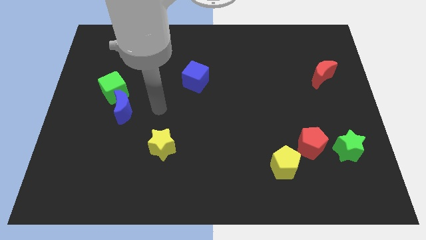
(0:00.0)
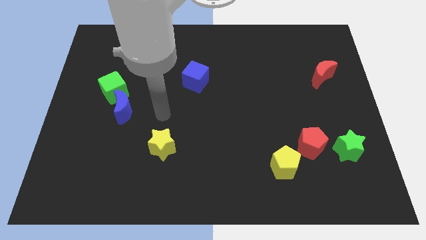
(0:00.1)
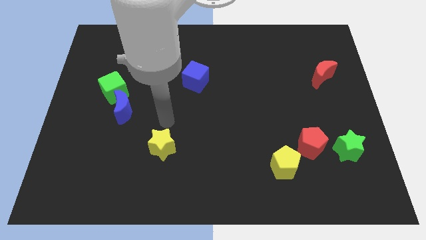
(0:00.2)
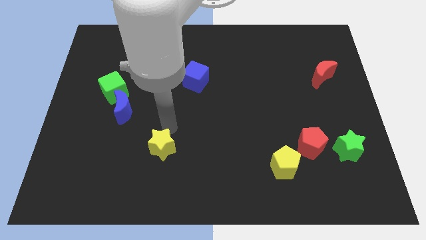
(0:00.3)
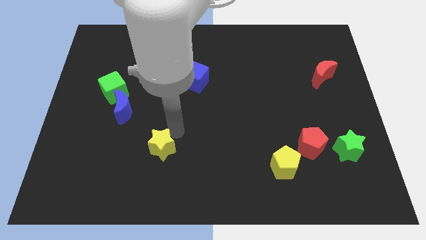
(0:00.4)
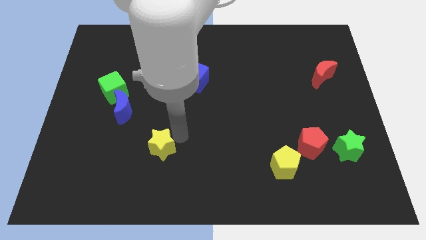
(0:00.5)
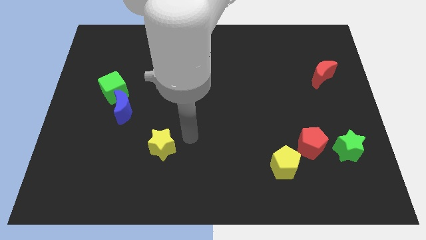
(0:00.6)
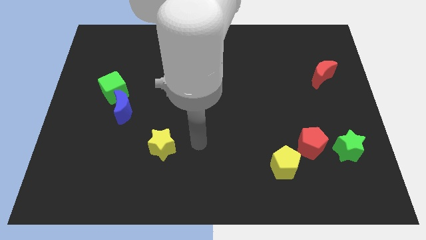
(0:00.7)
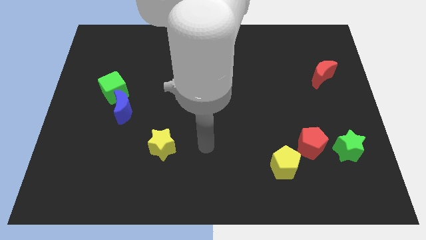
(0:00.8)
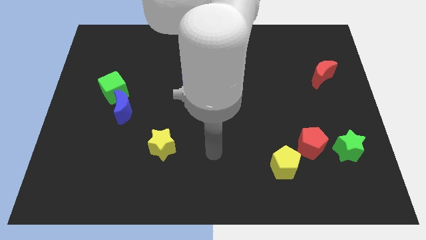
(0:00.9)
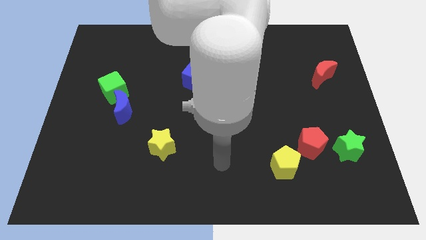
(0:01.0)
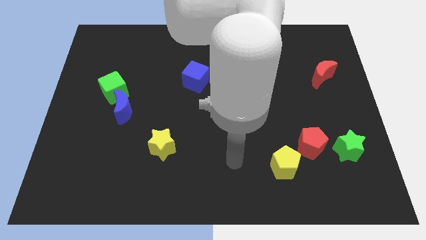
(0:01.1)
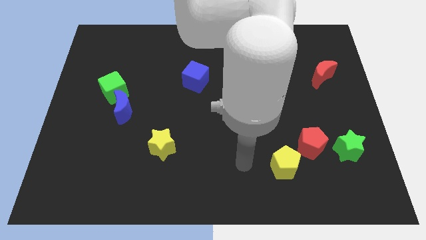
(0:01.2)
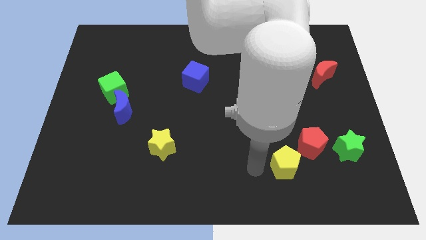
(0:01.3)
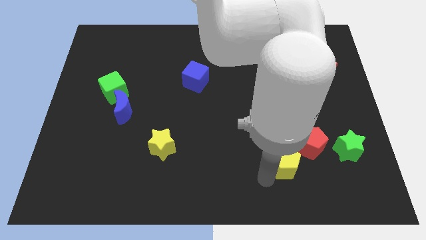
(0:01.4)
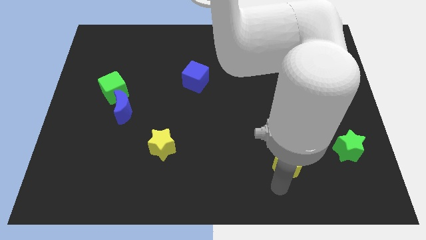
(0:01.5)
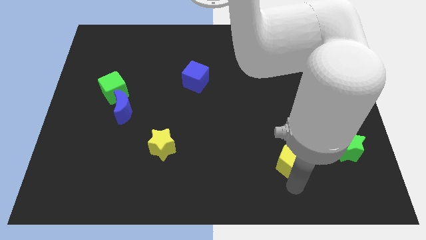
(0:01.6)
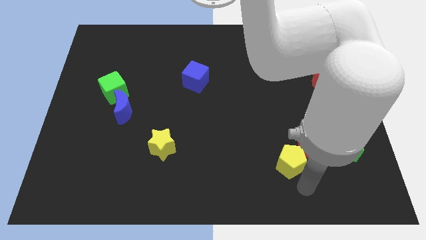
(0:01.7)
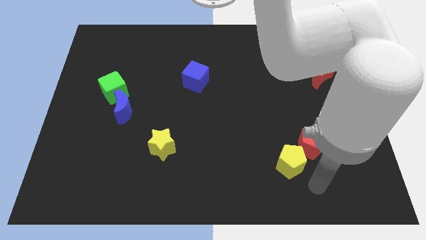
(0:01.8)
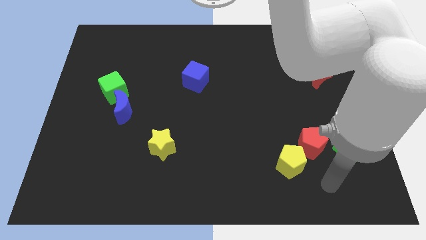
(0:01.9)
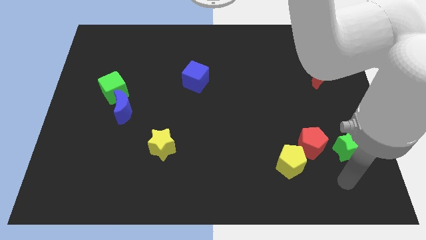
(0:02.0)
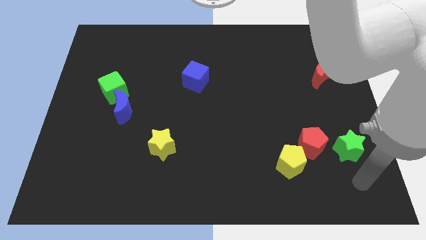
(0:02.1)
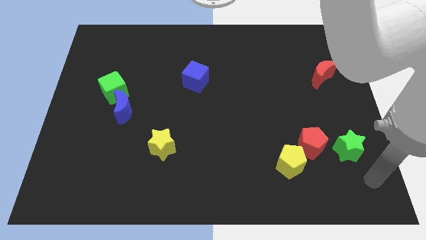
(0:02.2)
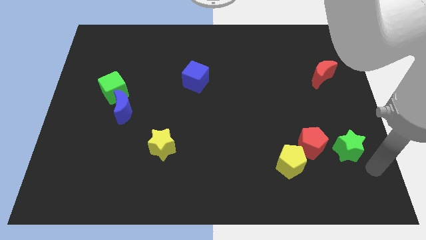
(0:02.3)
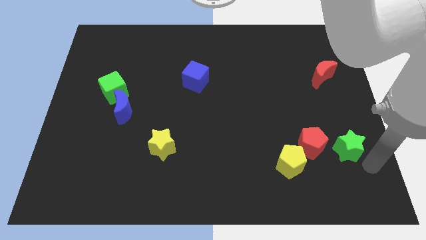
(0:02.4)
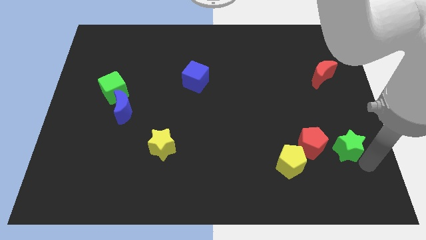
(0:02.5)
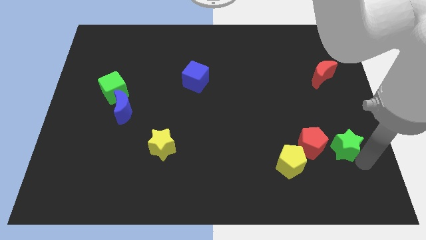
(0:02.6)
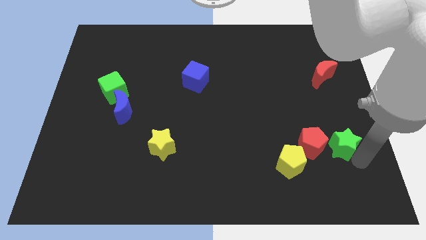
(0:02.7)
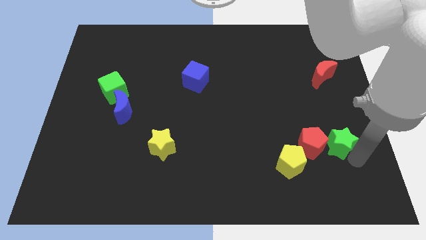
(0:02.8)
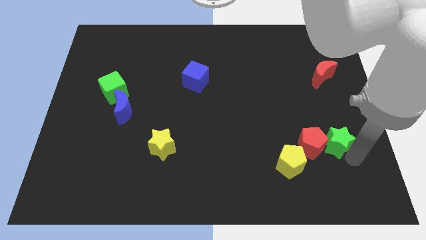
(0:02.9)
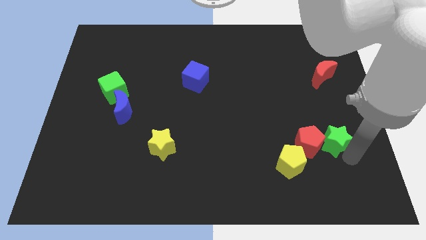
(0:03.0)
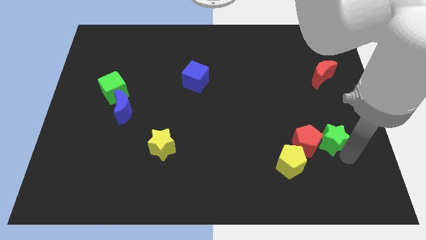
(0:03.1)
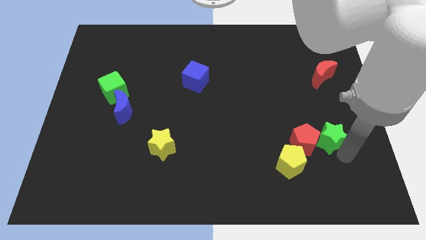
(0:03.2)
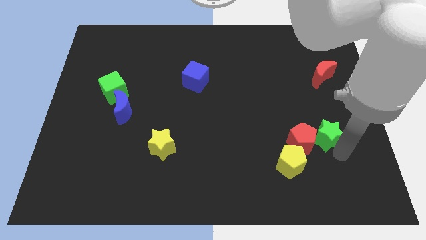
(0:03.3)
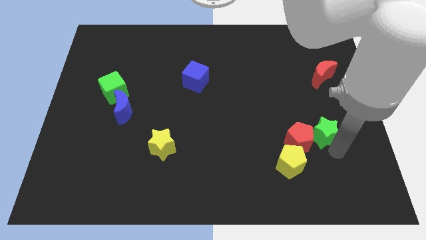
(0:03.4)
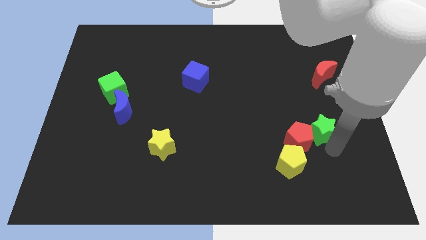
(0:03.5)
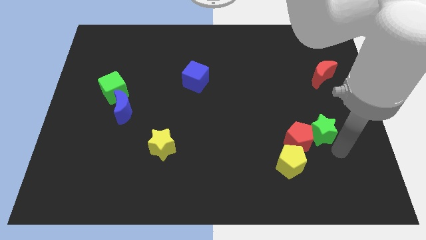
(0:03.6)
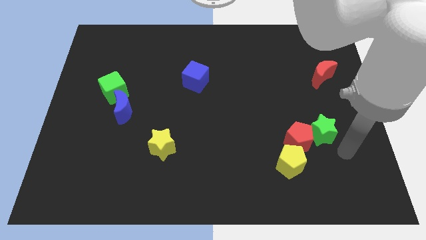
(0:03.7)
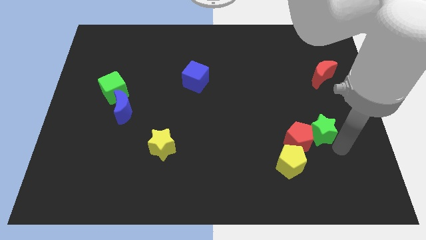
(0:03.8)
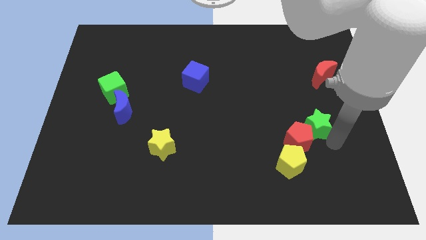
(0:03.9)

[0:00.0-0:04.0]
slightly push the green star up and then left

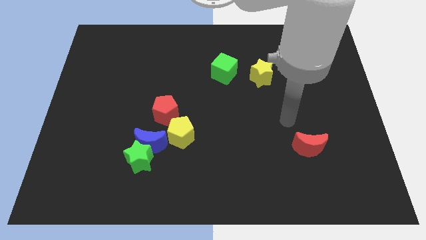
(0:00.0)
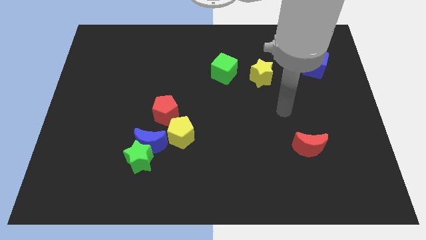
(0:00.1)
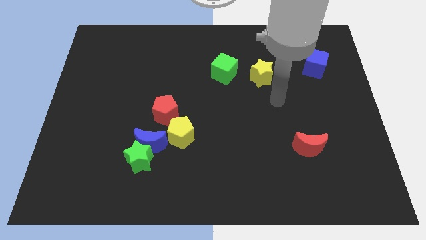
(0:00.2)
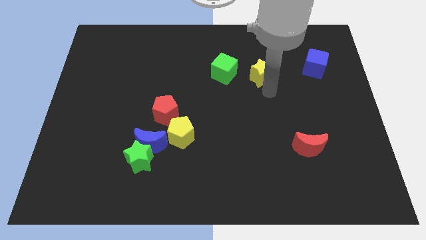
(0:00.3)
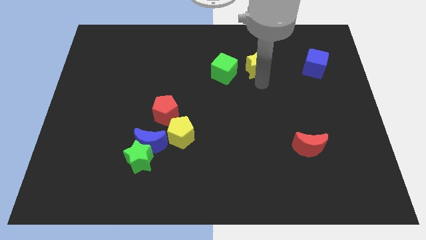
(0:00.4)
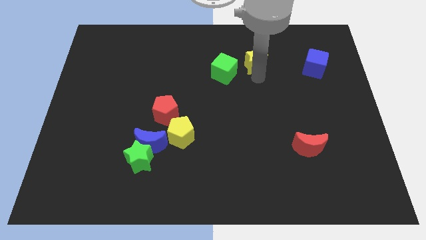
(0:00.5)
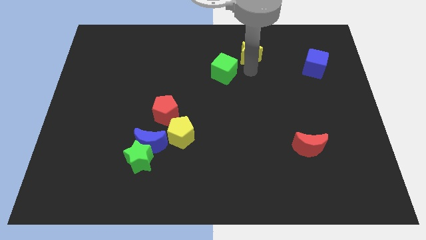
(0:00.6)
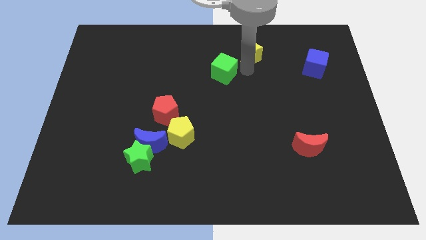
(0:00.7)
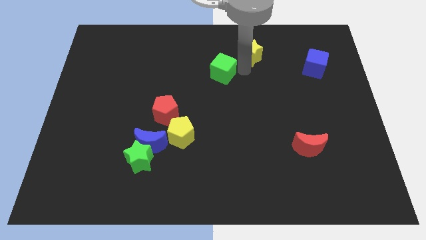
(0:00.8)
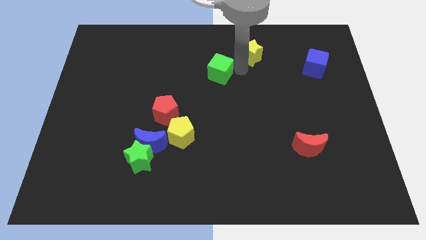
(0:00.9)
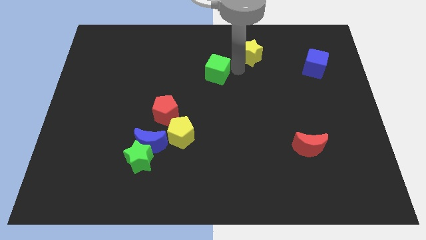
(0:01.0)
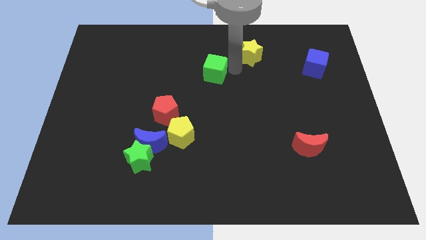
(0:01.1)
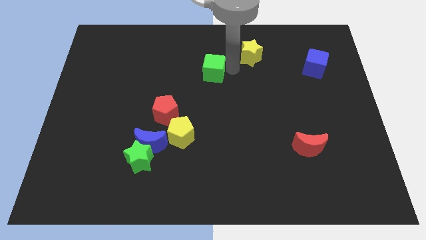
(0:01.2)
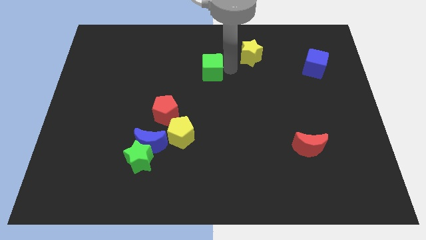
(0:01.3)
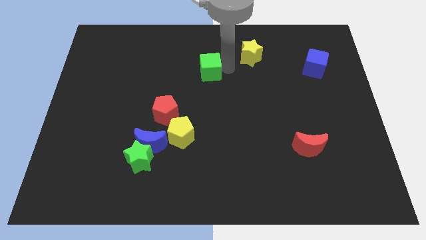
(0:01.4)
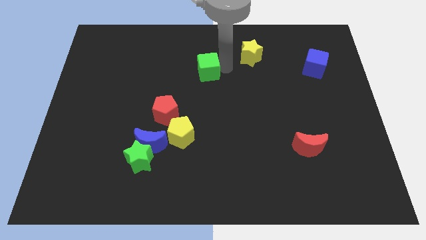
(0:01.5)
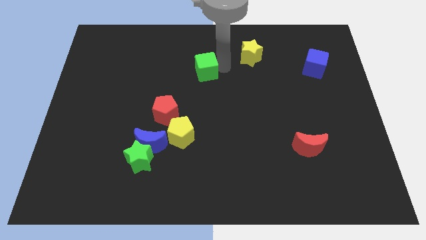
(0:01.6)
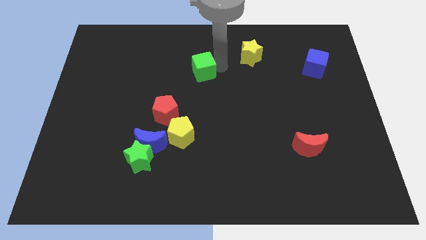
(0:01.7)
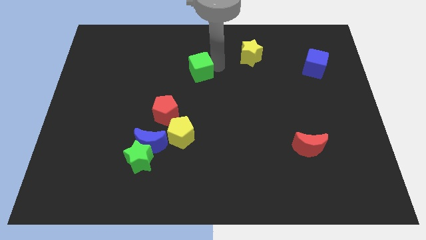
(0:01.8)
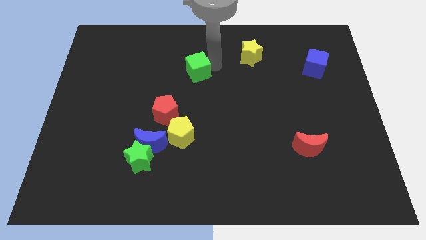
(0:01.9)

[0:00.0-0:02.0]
move the green cube slightly left

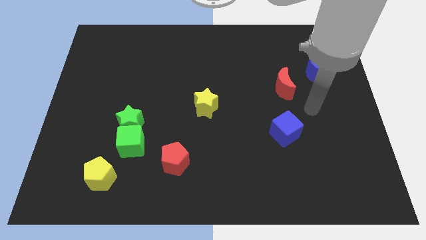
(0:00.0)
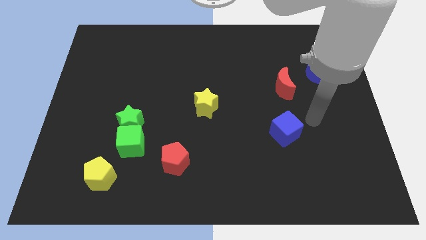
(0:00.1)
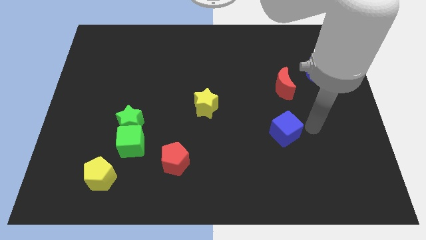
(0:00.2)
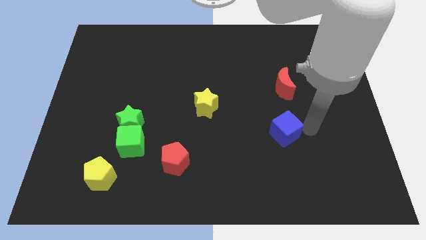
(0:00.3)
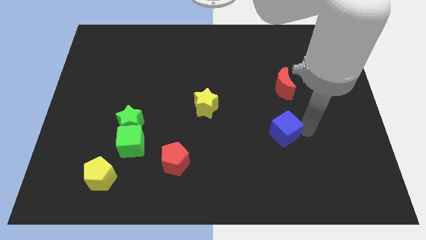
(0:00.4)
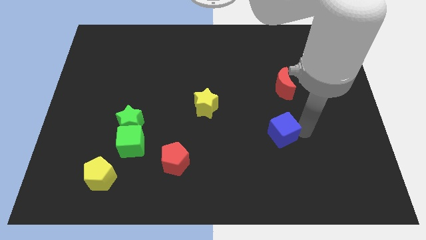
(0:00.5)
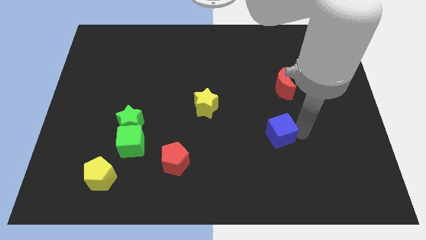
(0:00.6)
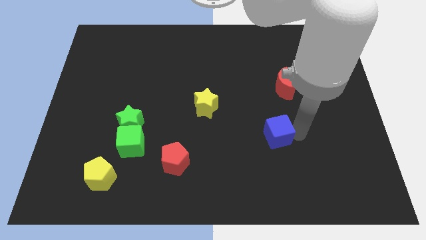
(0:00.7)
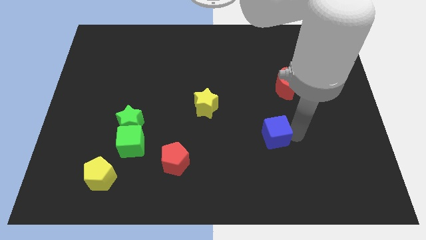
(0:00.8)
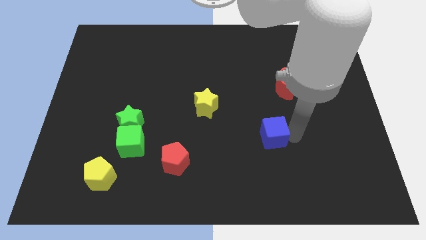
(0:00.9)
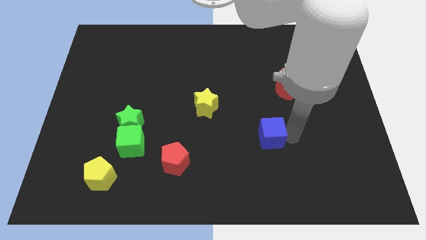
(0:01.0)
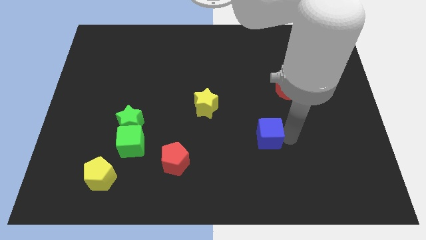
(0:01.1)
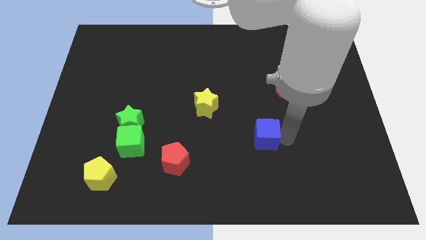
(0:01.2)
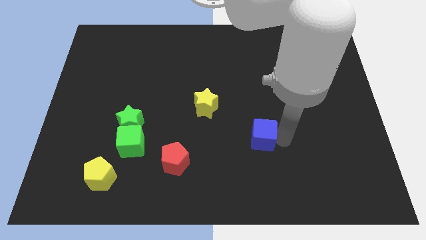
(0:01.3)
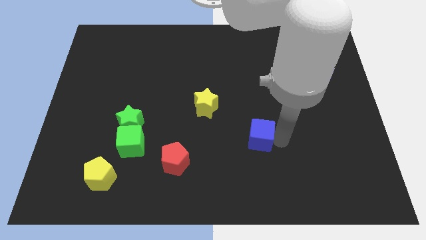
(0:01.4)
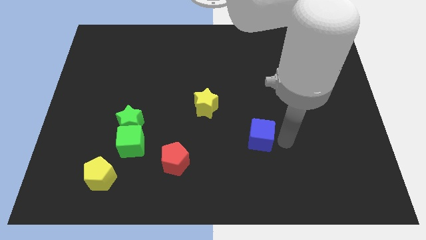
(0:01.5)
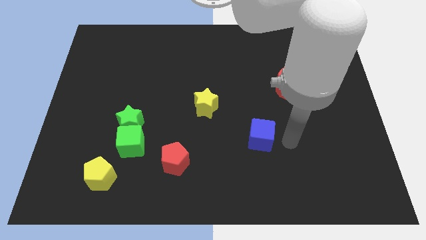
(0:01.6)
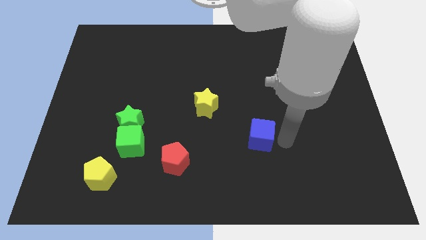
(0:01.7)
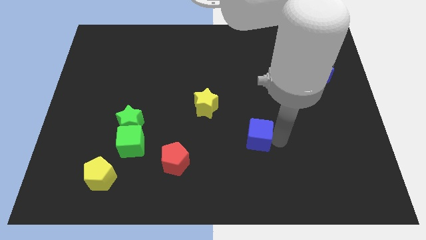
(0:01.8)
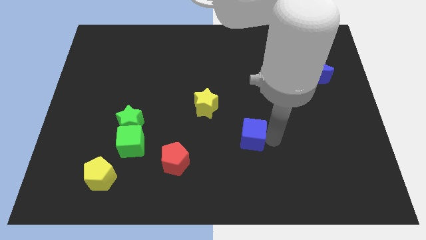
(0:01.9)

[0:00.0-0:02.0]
move the blue cube to the left a bit

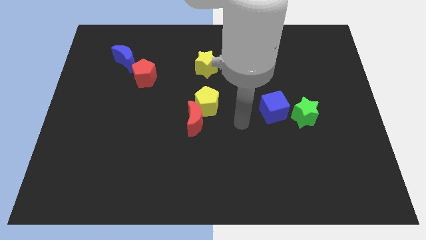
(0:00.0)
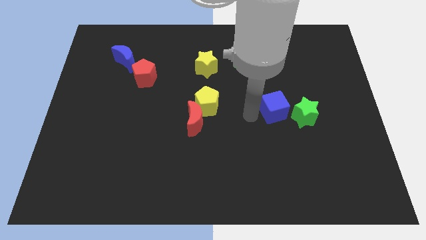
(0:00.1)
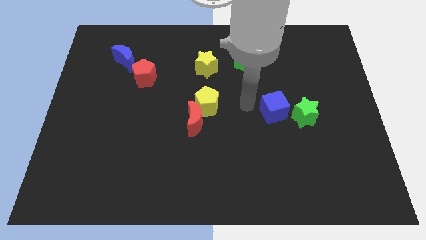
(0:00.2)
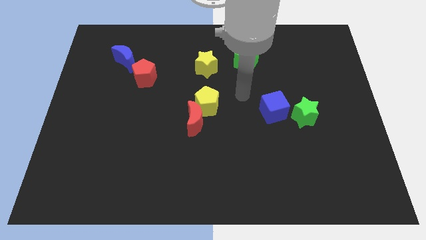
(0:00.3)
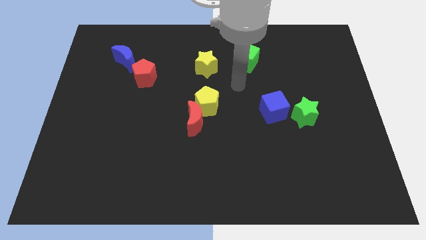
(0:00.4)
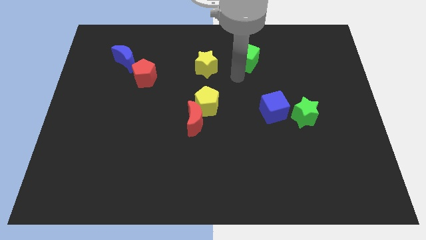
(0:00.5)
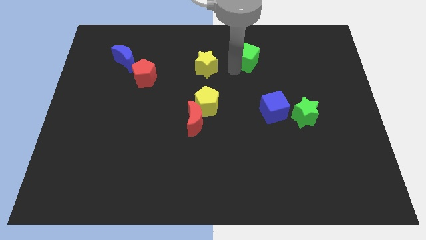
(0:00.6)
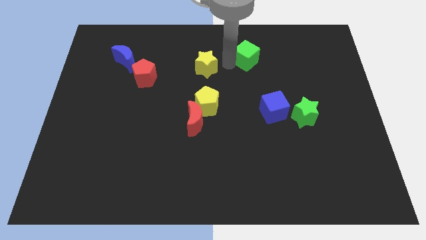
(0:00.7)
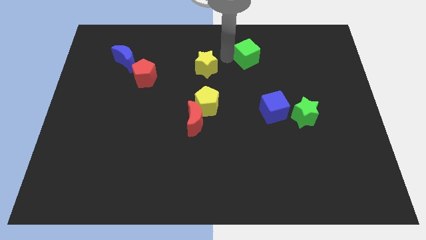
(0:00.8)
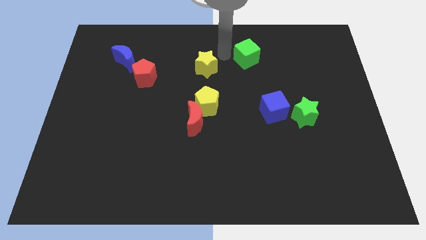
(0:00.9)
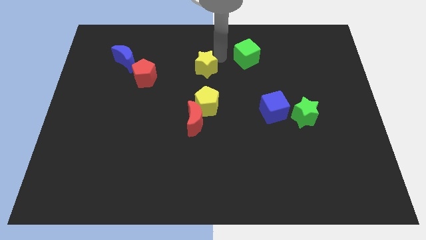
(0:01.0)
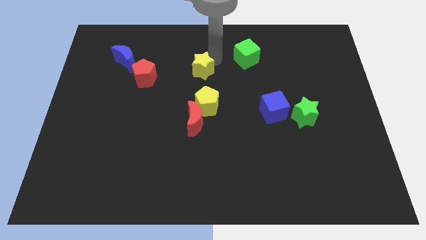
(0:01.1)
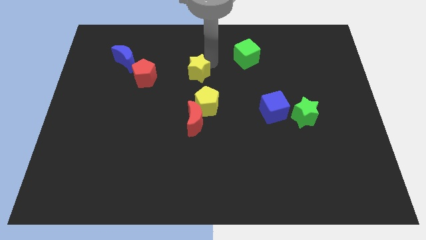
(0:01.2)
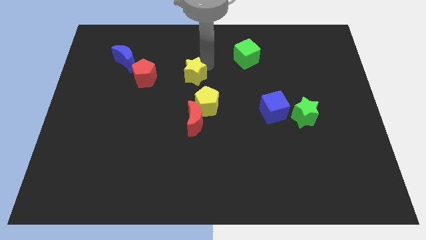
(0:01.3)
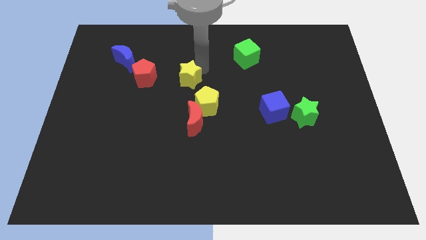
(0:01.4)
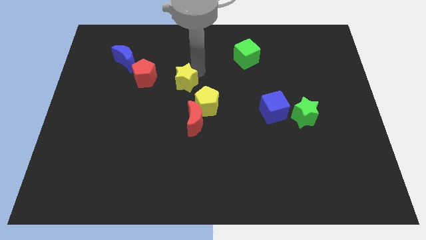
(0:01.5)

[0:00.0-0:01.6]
push the yellow star downwards and left diagonally a little
